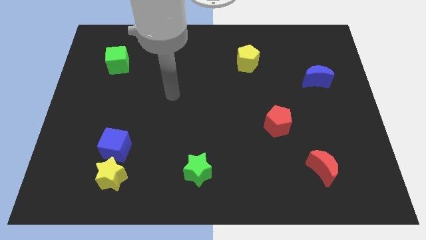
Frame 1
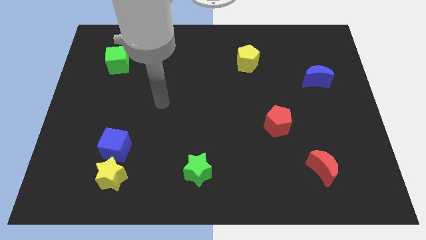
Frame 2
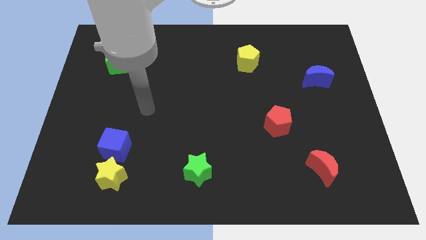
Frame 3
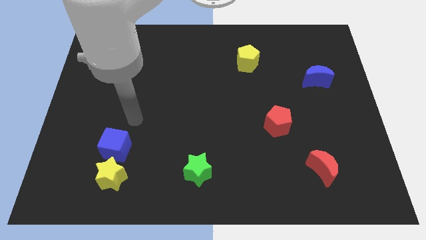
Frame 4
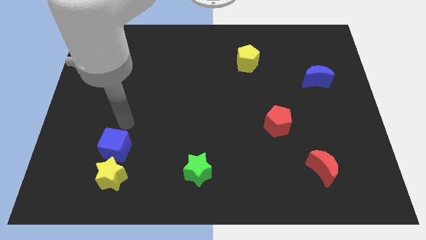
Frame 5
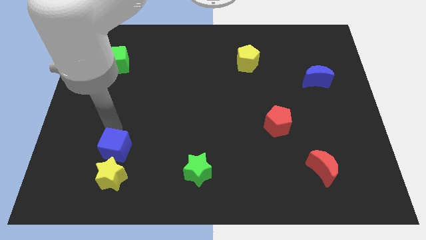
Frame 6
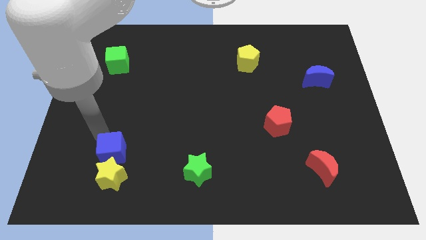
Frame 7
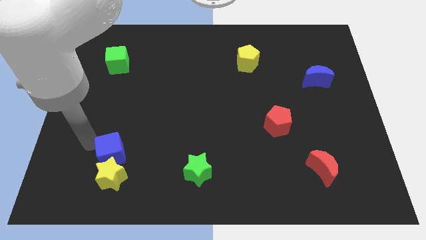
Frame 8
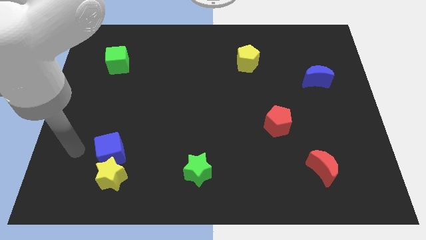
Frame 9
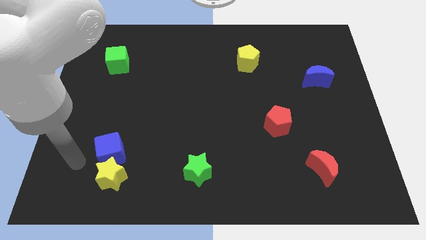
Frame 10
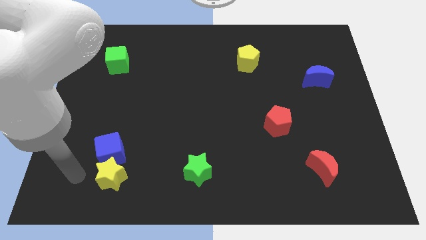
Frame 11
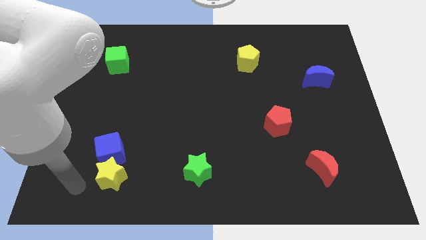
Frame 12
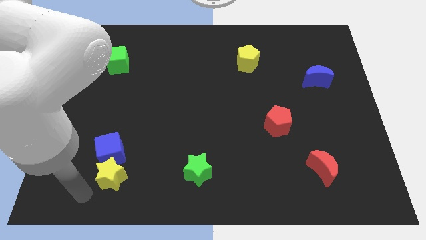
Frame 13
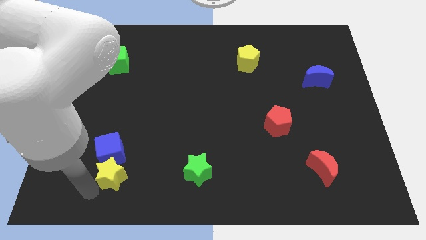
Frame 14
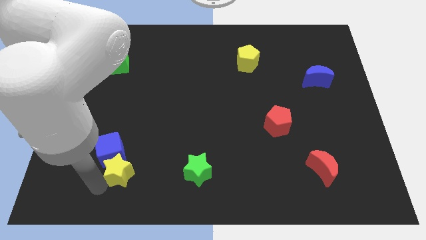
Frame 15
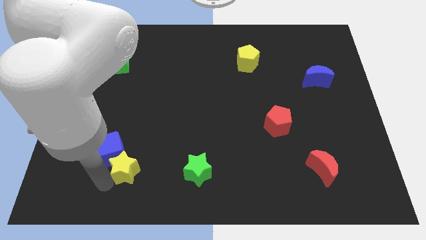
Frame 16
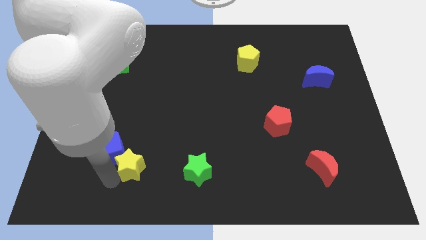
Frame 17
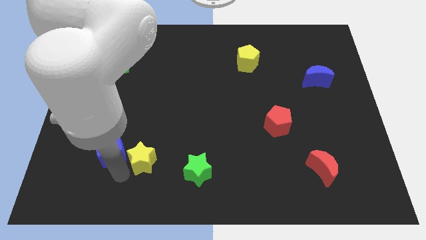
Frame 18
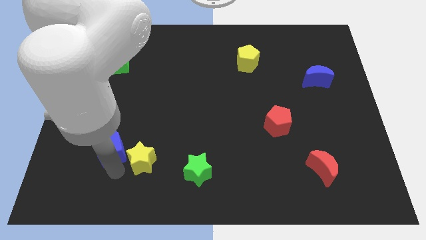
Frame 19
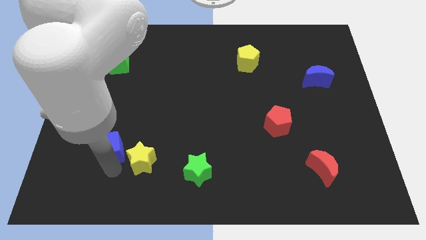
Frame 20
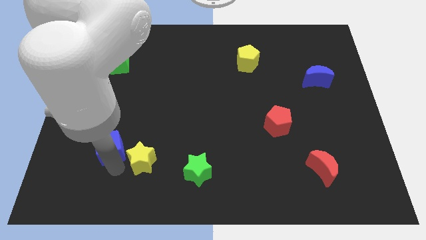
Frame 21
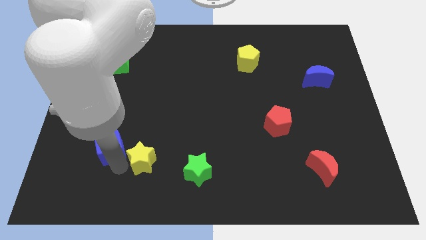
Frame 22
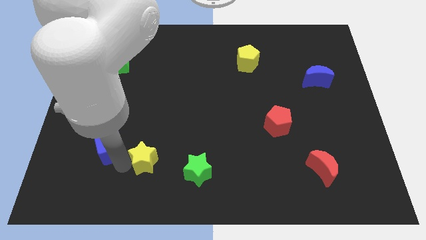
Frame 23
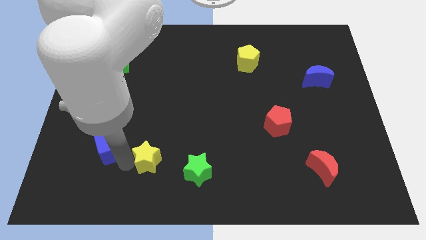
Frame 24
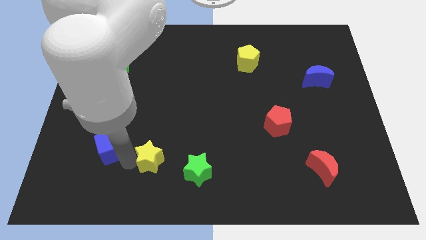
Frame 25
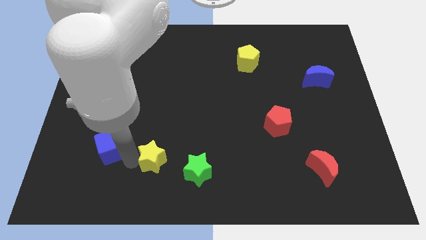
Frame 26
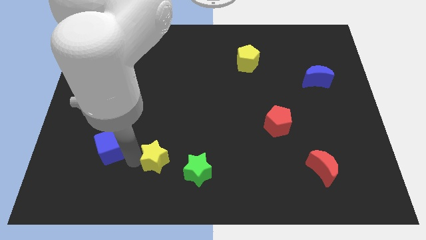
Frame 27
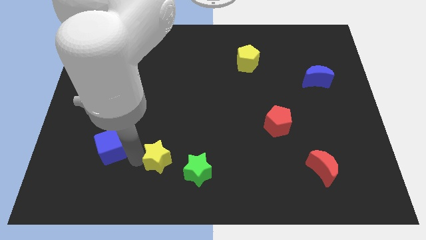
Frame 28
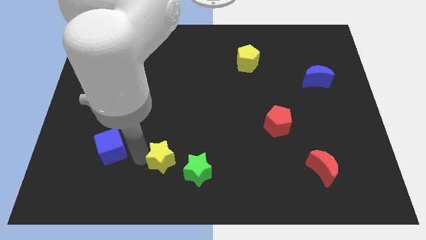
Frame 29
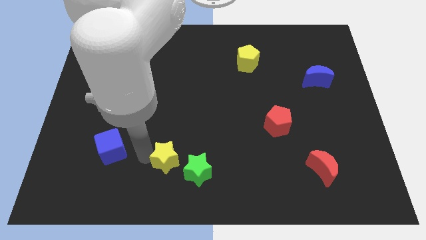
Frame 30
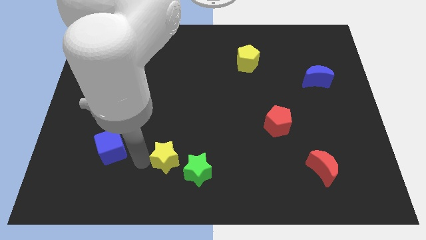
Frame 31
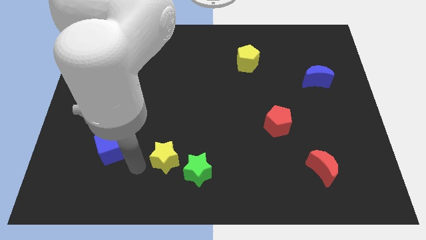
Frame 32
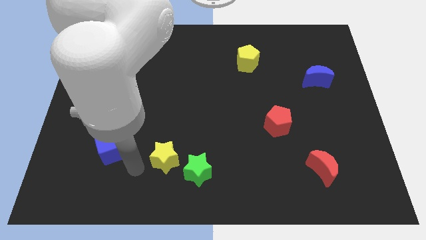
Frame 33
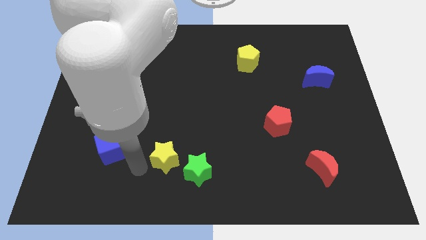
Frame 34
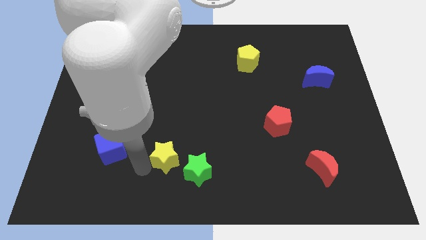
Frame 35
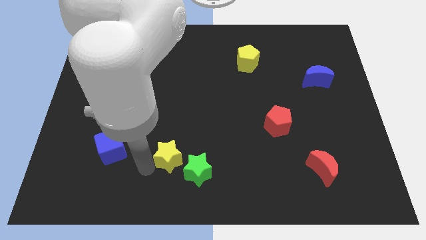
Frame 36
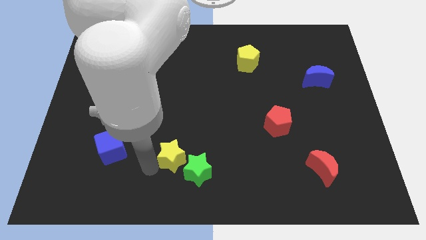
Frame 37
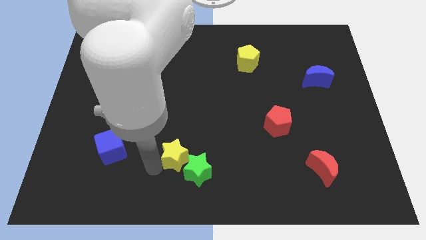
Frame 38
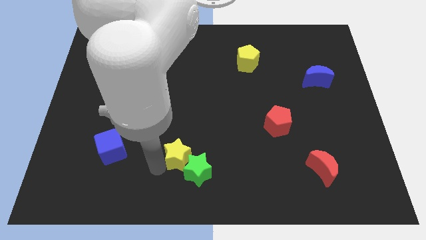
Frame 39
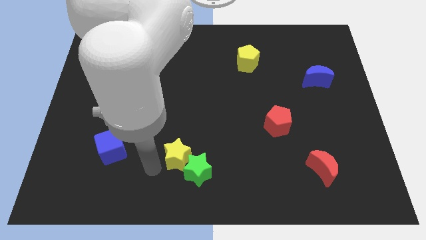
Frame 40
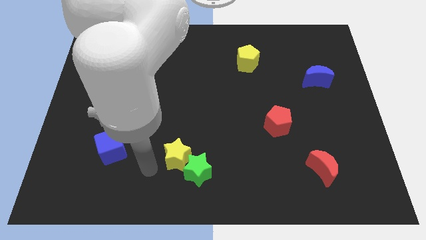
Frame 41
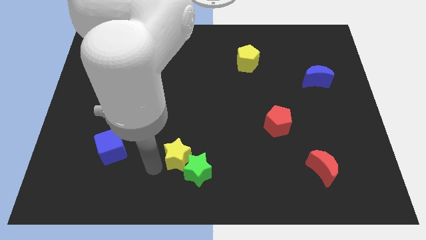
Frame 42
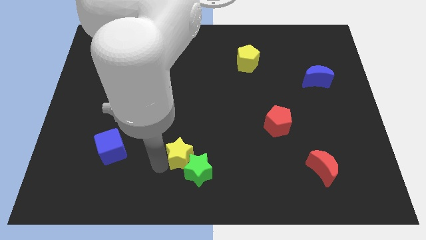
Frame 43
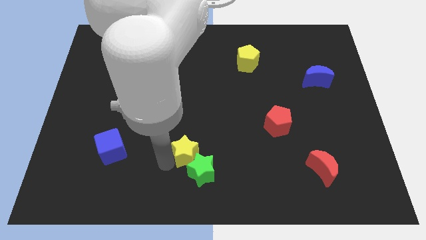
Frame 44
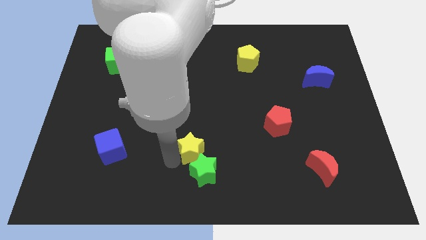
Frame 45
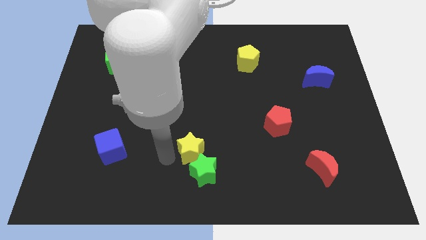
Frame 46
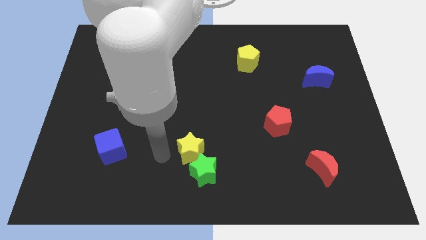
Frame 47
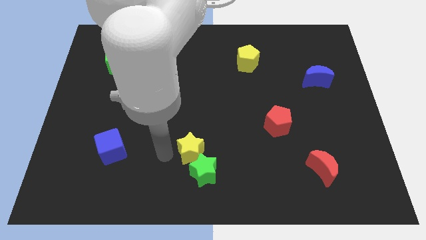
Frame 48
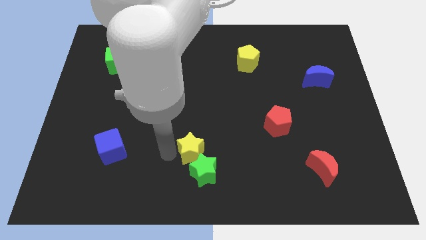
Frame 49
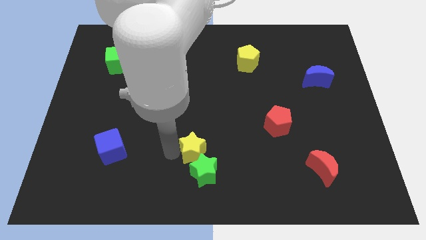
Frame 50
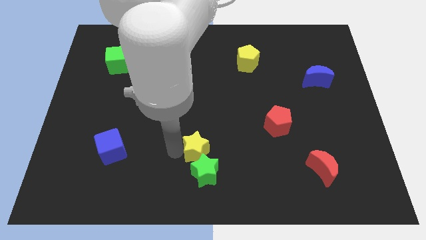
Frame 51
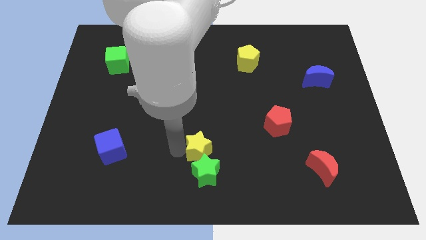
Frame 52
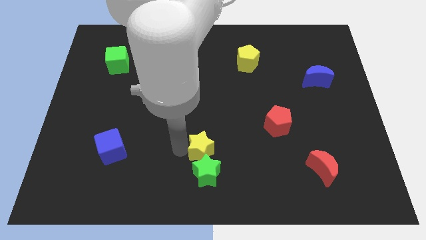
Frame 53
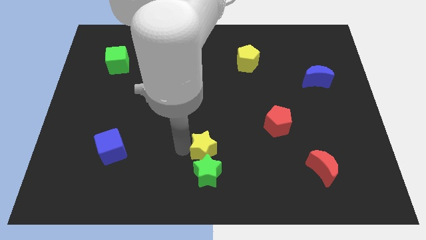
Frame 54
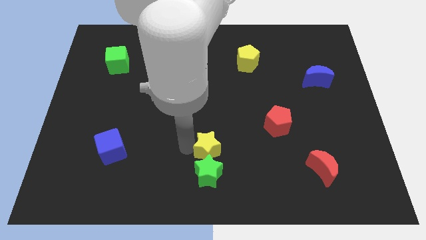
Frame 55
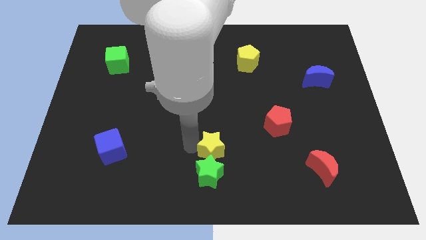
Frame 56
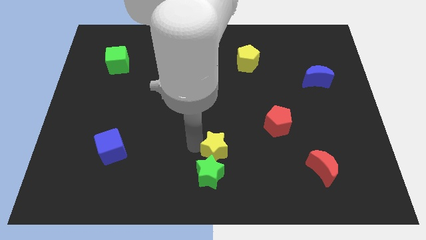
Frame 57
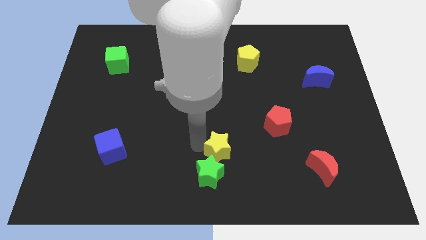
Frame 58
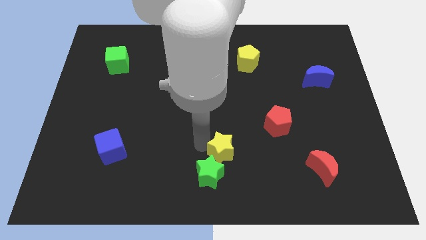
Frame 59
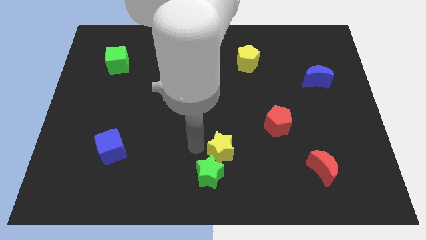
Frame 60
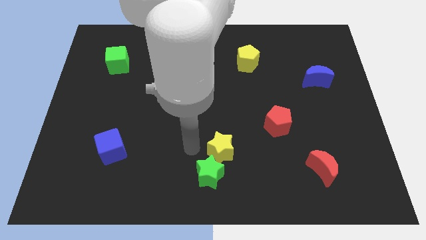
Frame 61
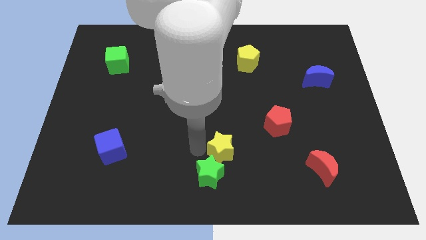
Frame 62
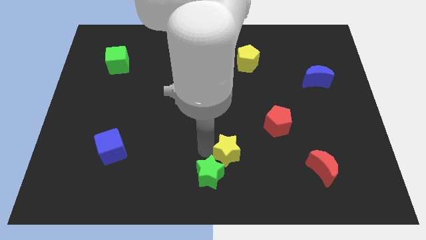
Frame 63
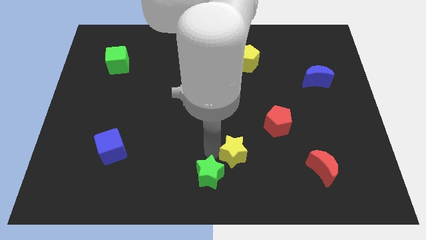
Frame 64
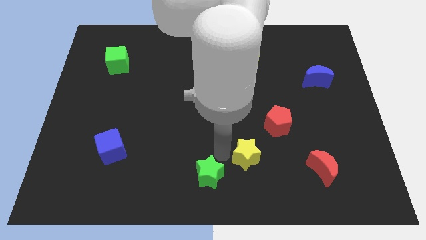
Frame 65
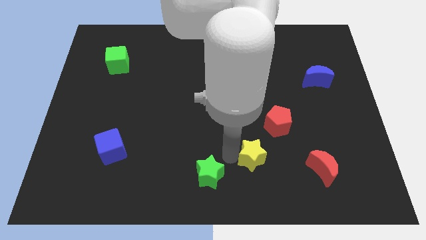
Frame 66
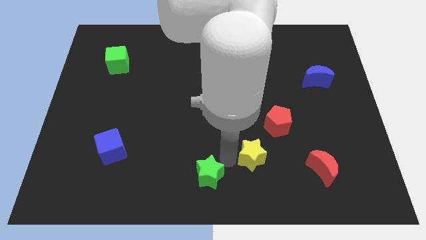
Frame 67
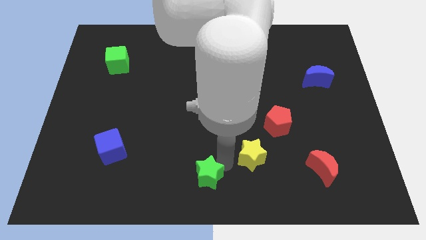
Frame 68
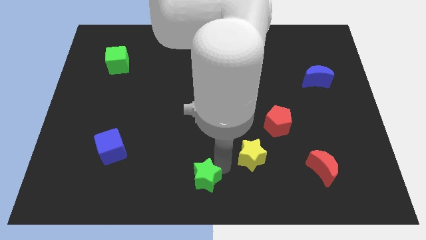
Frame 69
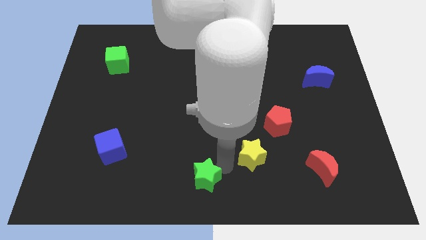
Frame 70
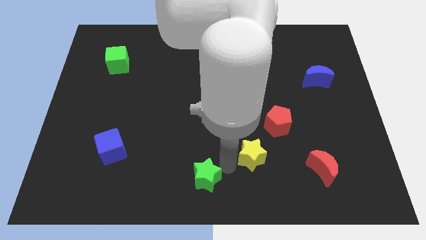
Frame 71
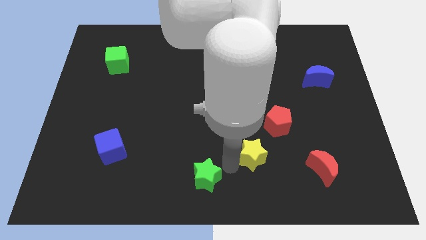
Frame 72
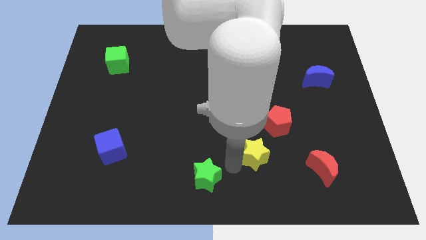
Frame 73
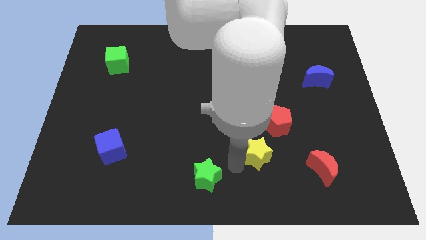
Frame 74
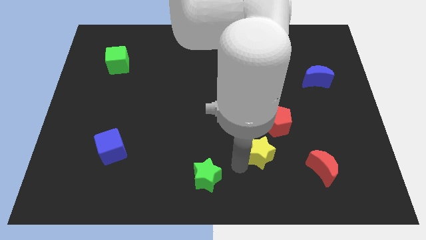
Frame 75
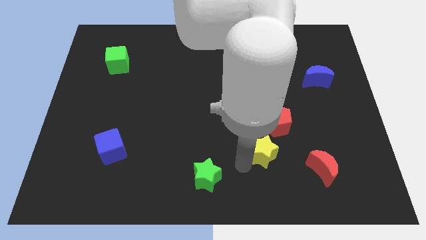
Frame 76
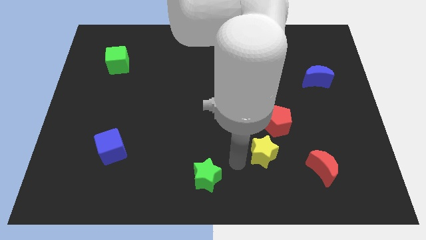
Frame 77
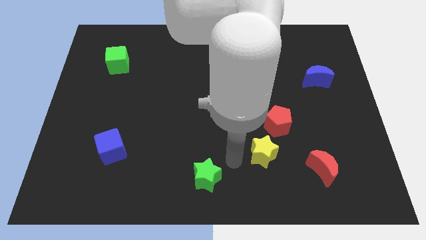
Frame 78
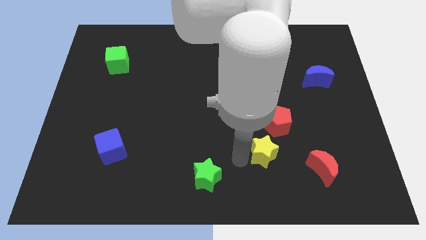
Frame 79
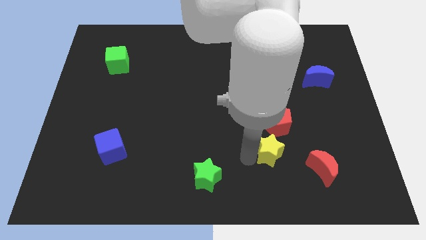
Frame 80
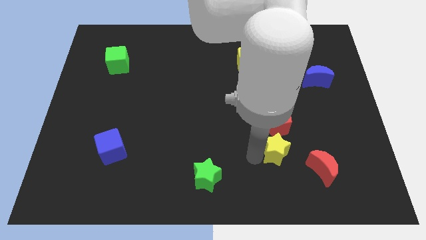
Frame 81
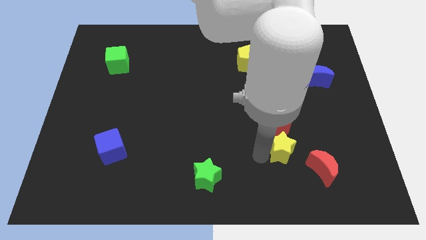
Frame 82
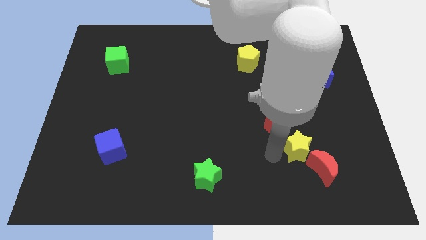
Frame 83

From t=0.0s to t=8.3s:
slide the yellow star to the top of the red moon
